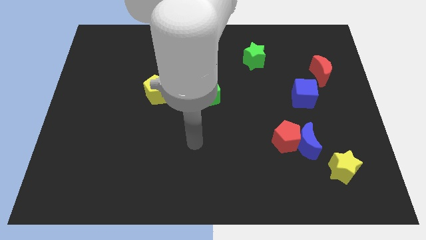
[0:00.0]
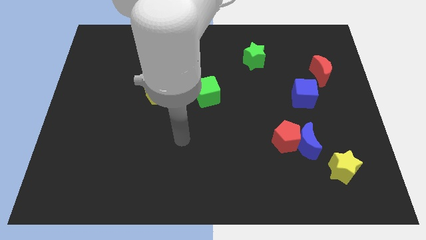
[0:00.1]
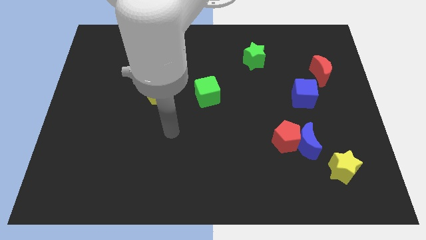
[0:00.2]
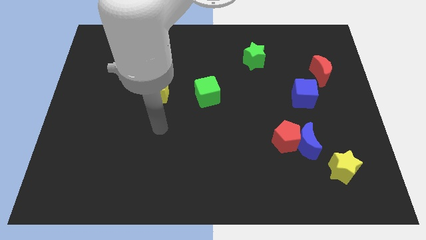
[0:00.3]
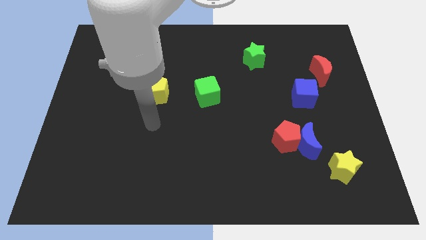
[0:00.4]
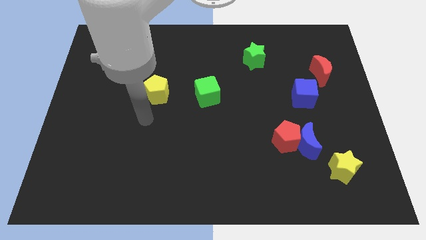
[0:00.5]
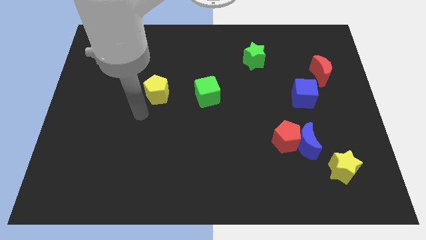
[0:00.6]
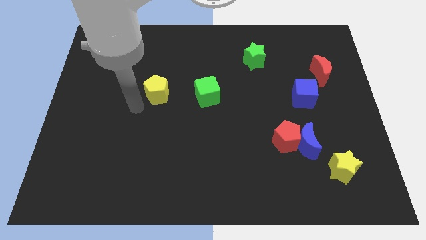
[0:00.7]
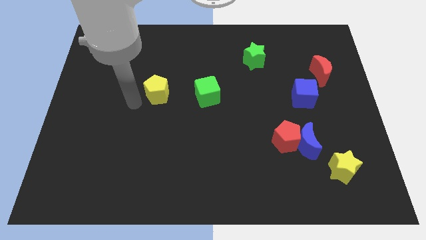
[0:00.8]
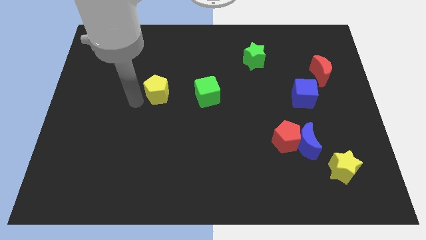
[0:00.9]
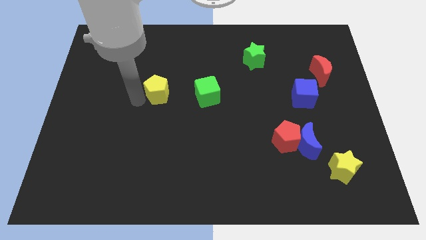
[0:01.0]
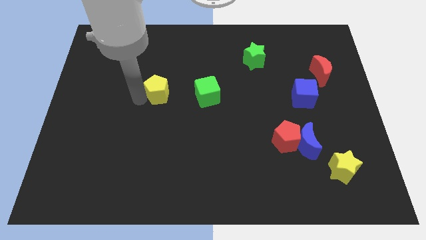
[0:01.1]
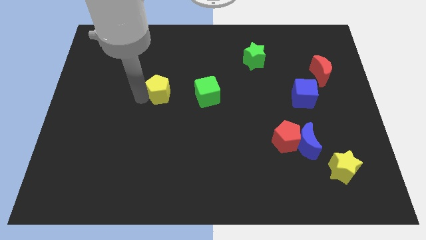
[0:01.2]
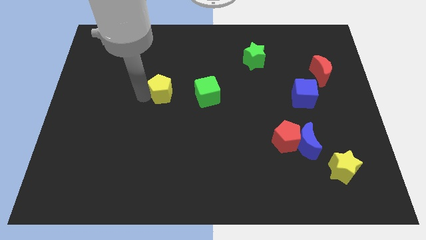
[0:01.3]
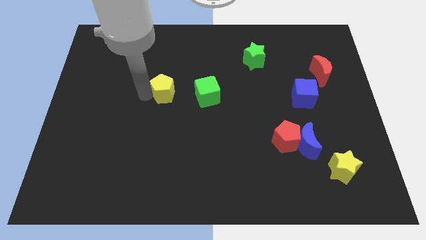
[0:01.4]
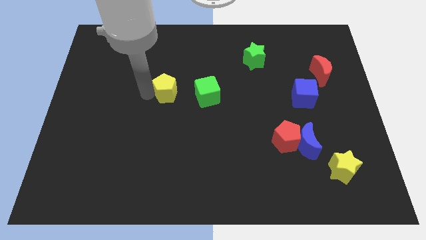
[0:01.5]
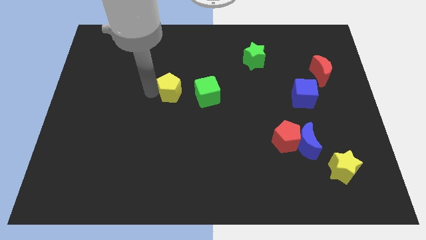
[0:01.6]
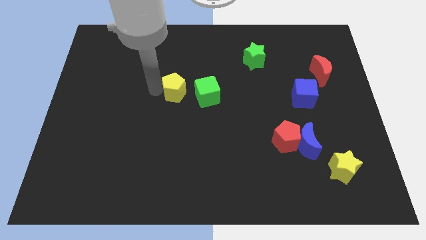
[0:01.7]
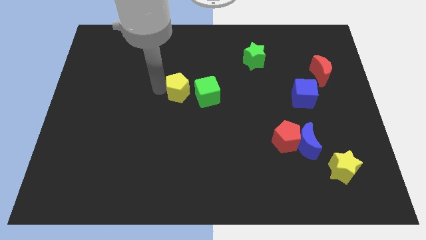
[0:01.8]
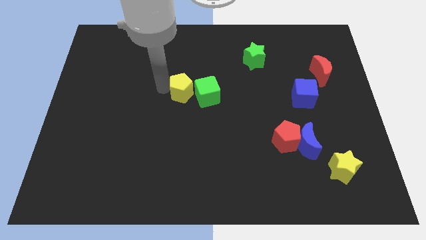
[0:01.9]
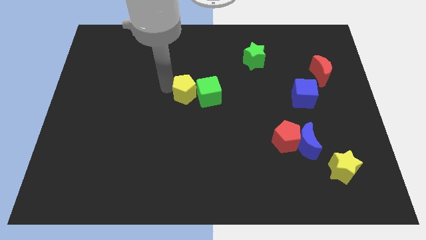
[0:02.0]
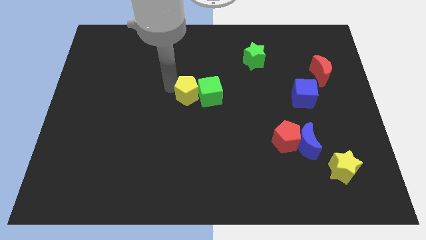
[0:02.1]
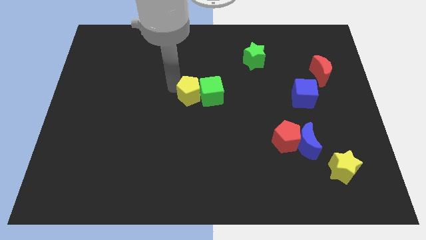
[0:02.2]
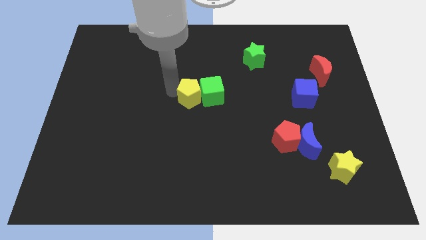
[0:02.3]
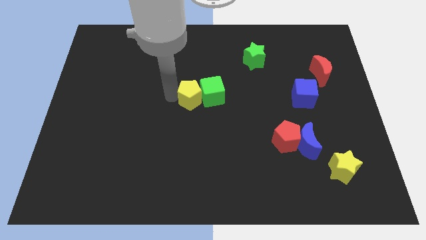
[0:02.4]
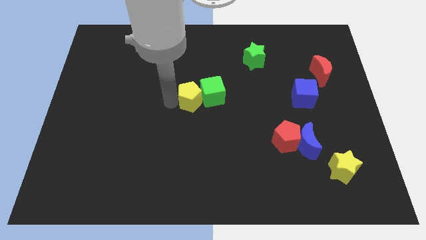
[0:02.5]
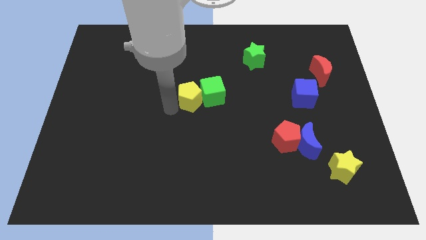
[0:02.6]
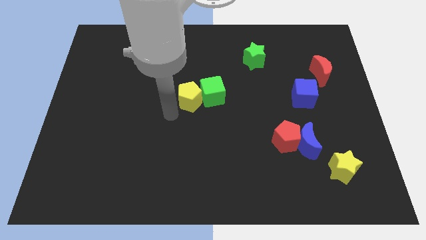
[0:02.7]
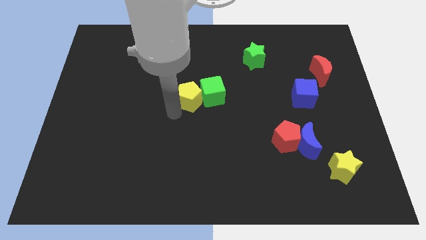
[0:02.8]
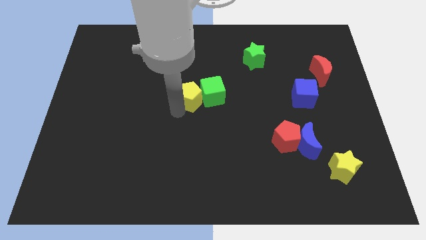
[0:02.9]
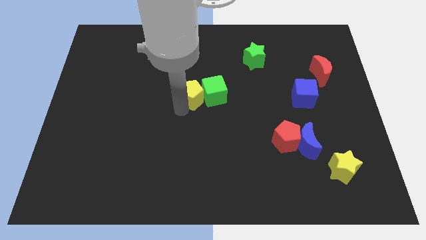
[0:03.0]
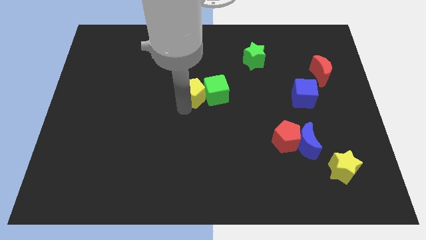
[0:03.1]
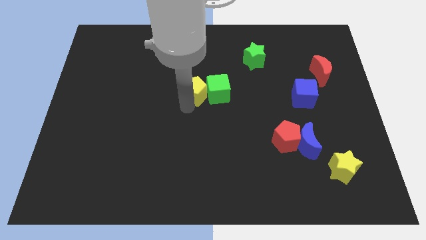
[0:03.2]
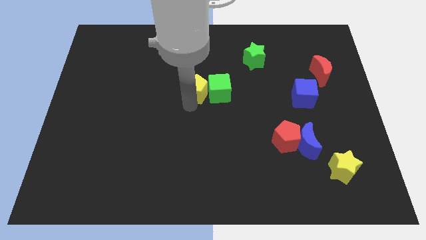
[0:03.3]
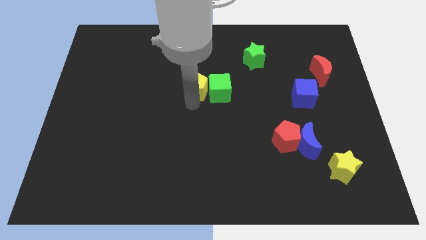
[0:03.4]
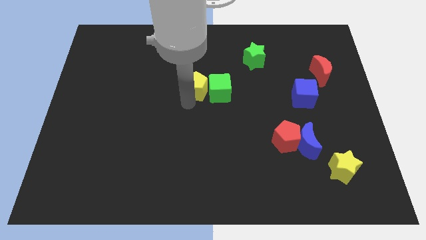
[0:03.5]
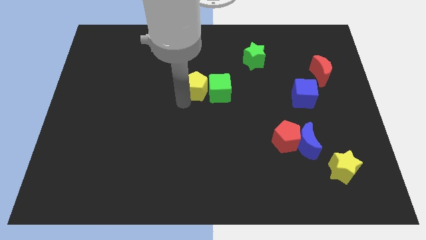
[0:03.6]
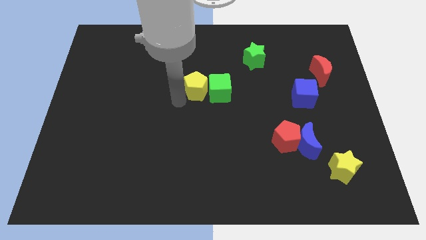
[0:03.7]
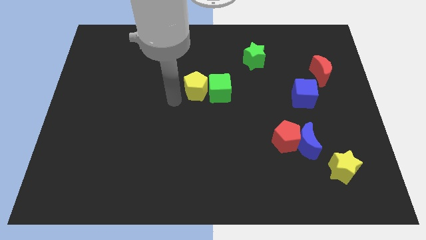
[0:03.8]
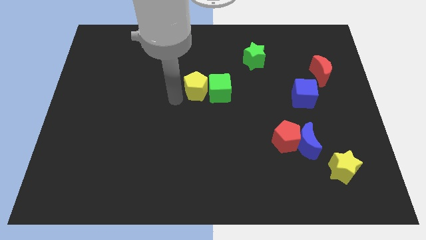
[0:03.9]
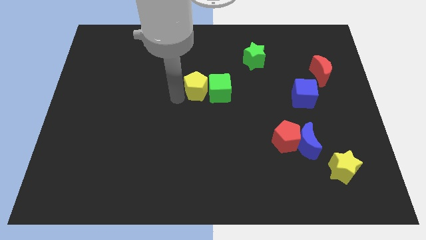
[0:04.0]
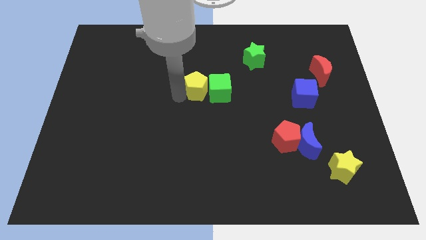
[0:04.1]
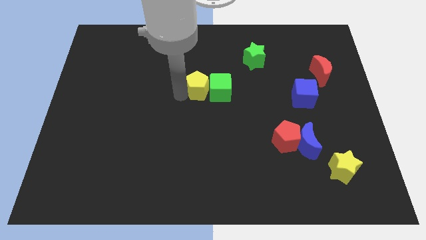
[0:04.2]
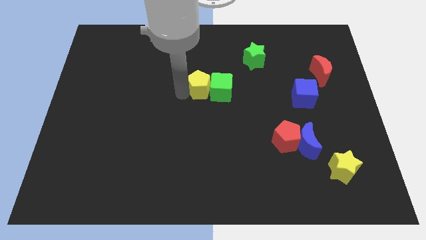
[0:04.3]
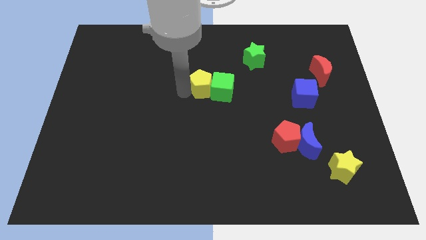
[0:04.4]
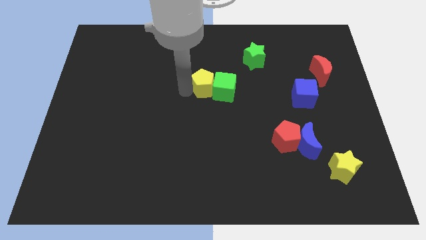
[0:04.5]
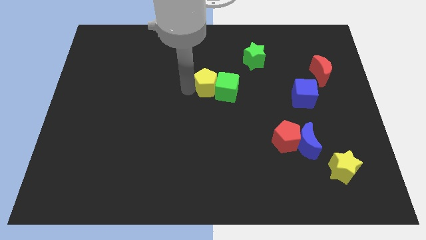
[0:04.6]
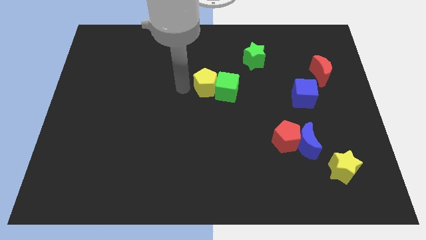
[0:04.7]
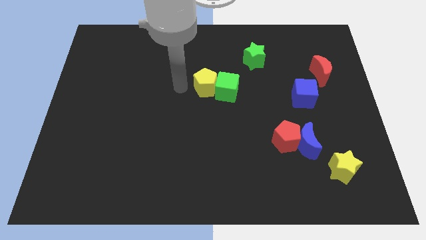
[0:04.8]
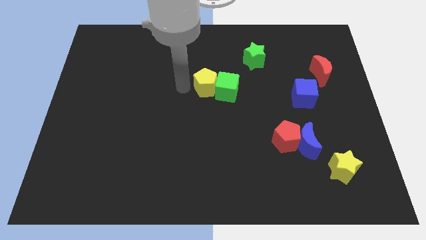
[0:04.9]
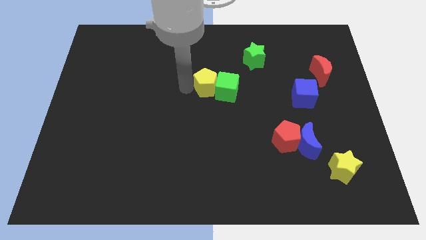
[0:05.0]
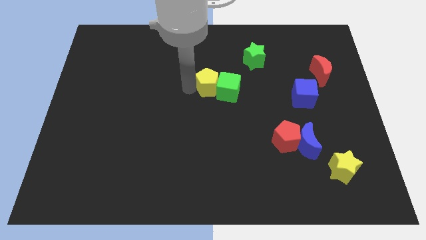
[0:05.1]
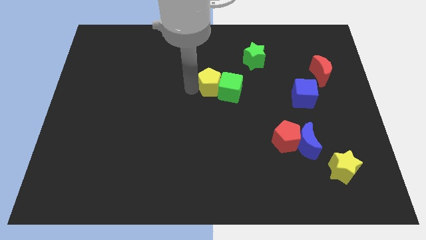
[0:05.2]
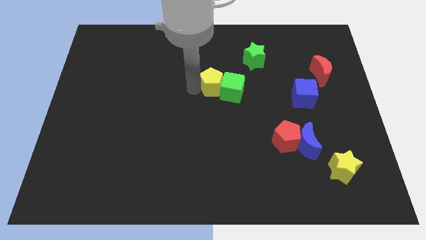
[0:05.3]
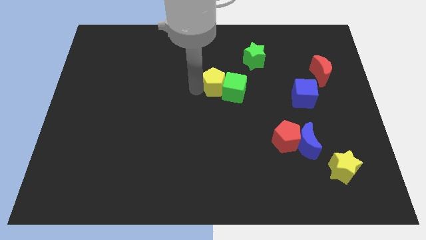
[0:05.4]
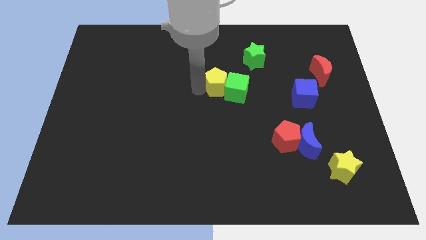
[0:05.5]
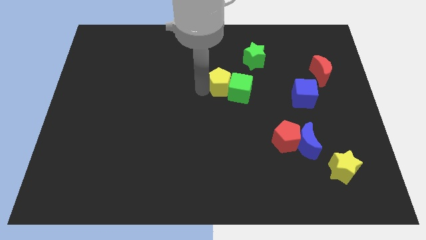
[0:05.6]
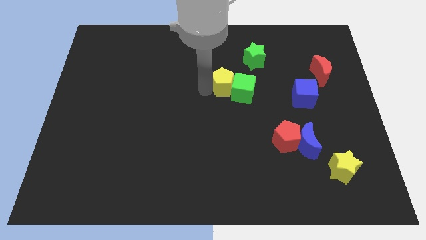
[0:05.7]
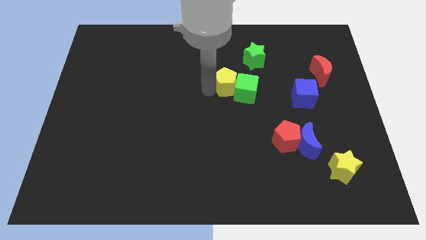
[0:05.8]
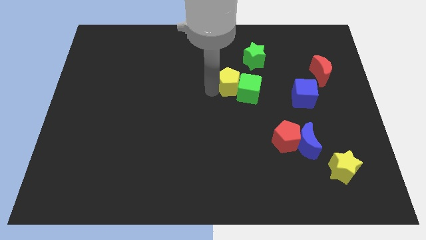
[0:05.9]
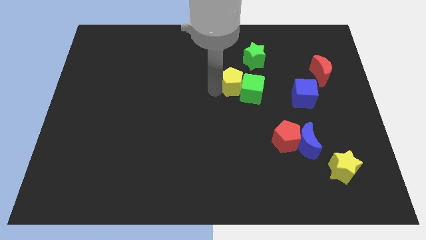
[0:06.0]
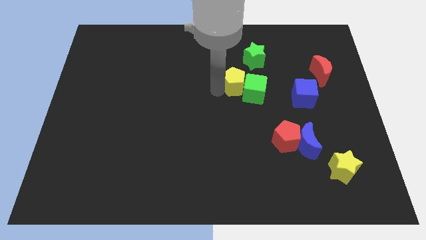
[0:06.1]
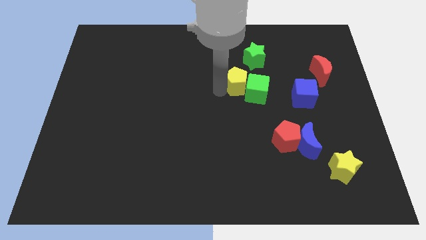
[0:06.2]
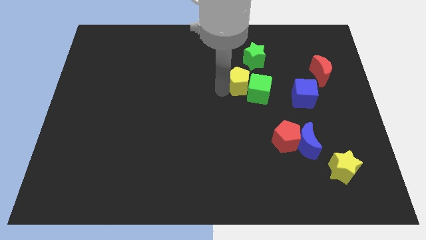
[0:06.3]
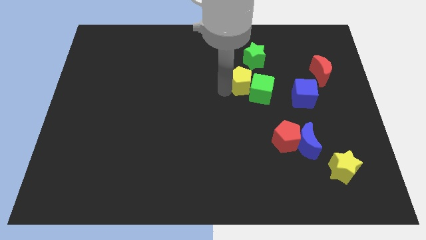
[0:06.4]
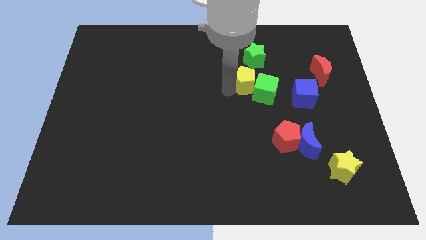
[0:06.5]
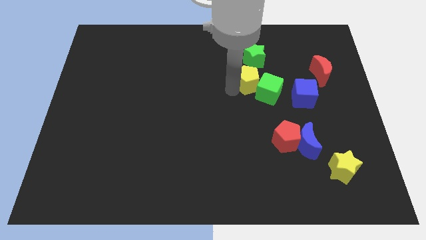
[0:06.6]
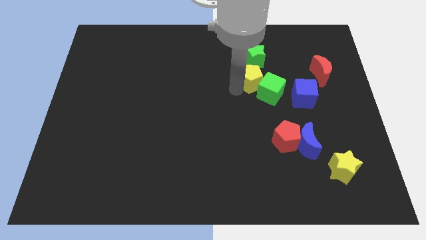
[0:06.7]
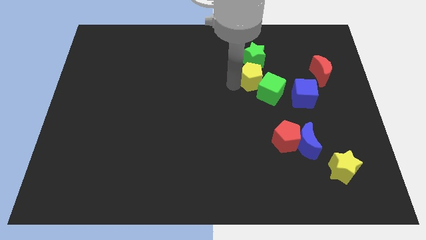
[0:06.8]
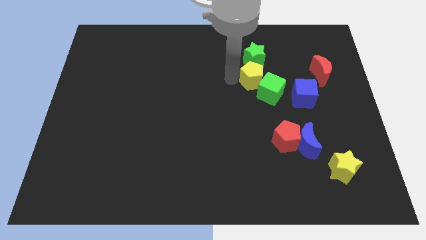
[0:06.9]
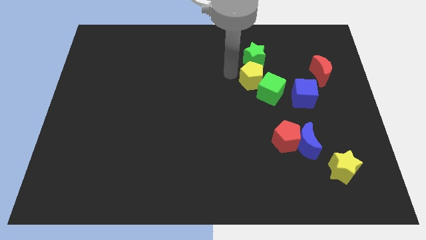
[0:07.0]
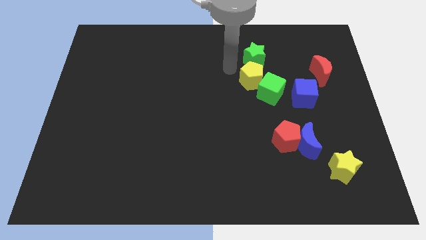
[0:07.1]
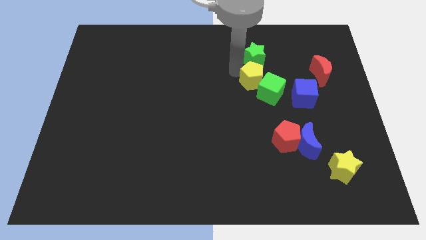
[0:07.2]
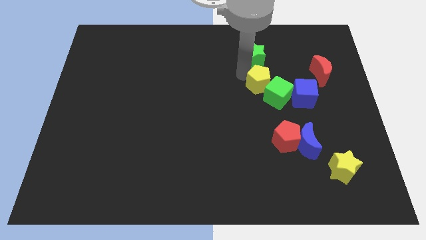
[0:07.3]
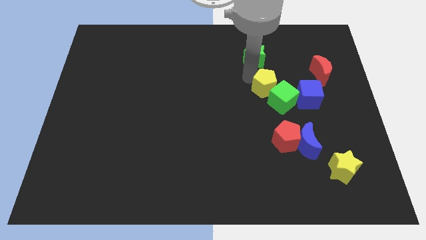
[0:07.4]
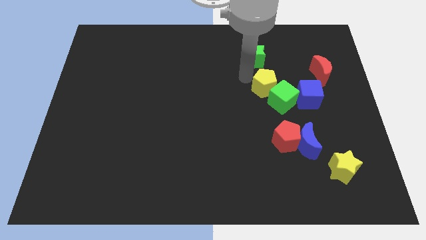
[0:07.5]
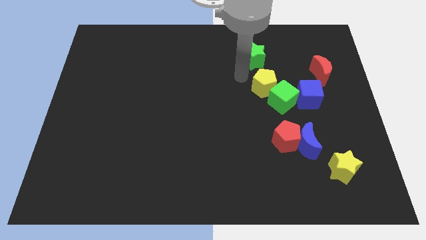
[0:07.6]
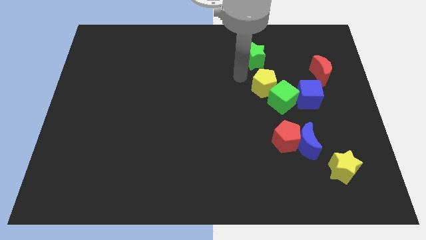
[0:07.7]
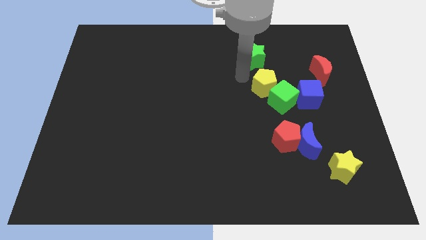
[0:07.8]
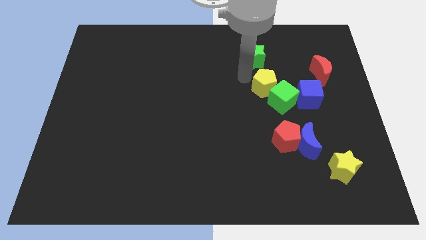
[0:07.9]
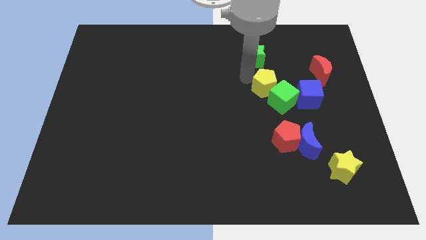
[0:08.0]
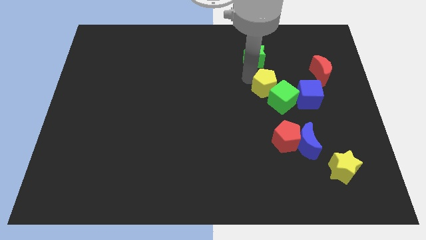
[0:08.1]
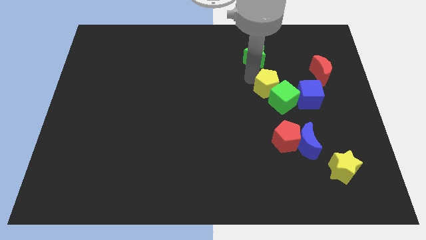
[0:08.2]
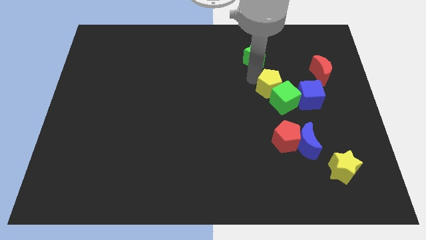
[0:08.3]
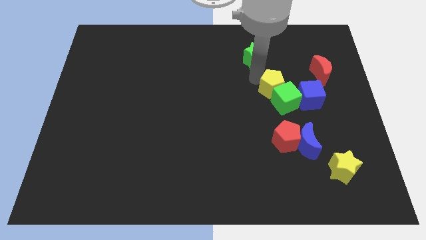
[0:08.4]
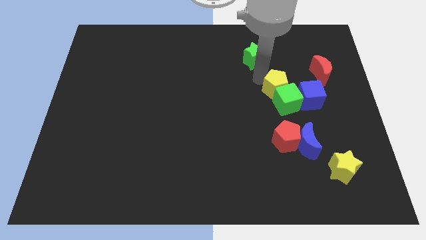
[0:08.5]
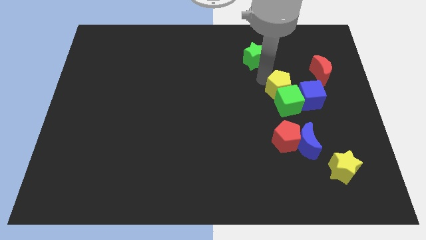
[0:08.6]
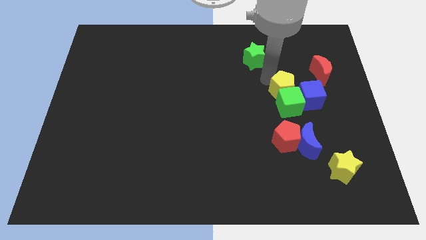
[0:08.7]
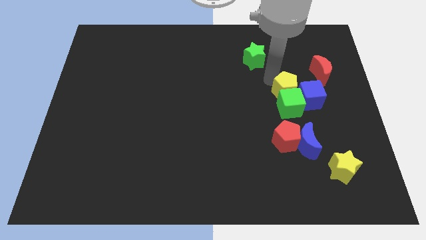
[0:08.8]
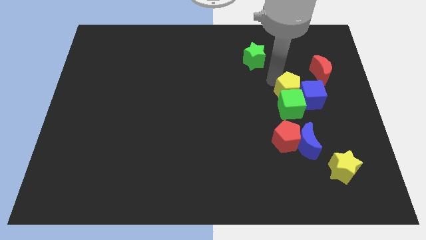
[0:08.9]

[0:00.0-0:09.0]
move the yellow pentagon to the blue cube
